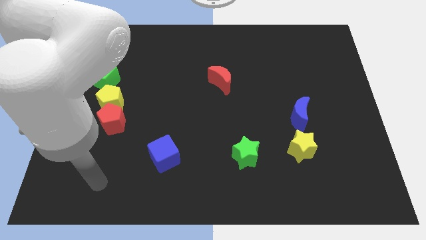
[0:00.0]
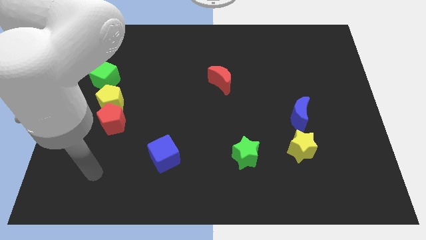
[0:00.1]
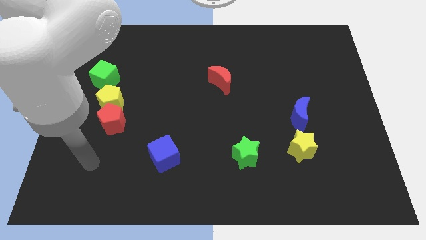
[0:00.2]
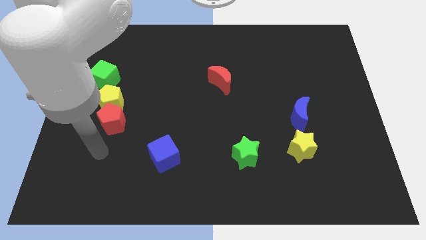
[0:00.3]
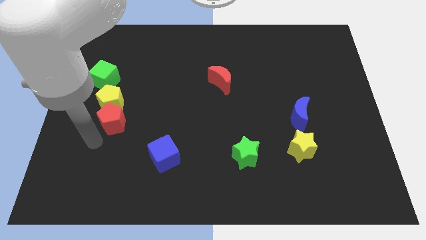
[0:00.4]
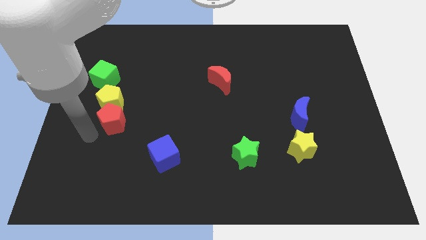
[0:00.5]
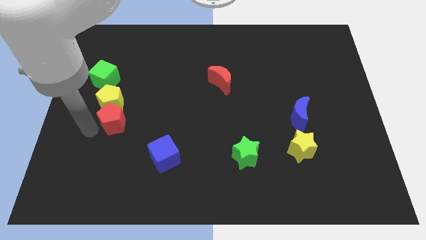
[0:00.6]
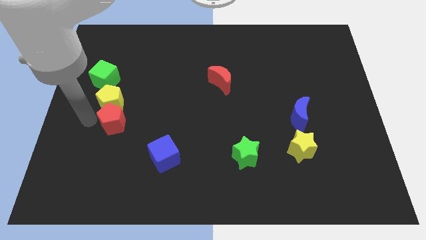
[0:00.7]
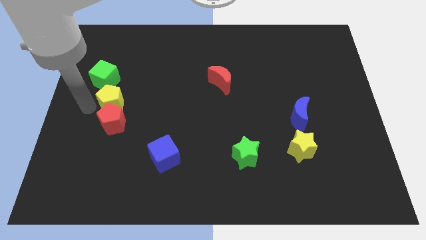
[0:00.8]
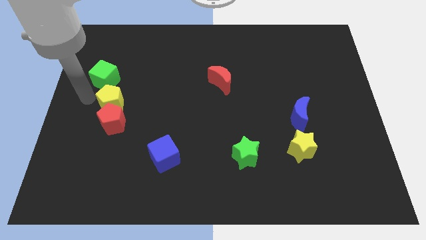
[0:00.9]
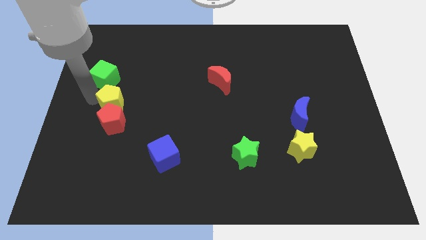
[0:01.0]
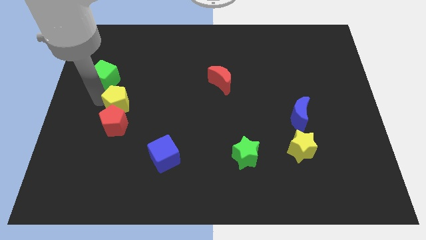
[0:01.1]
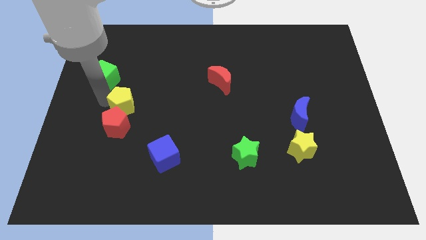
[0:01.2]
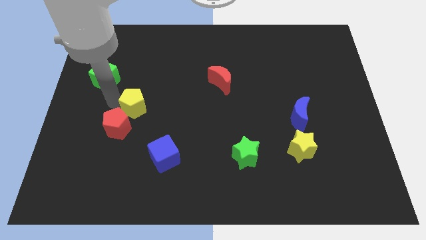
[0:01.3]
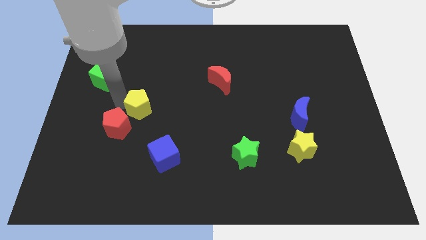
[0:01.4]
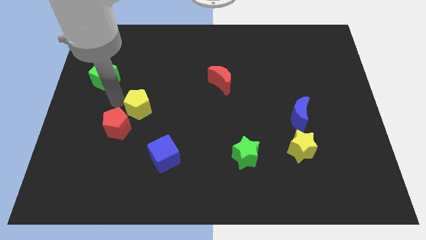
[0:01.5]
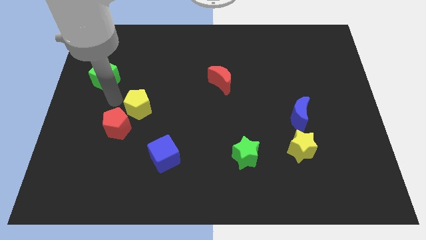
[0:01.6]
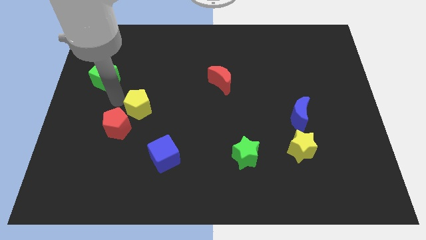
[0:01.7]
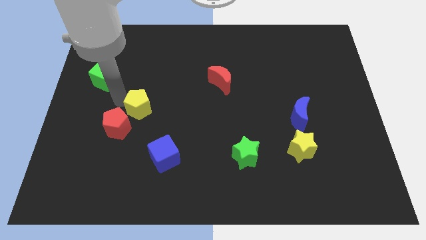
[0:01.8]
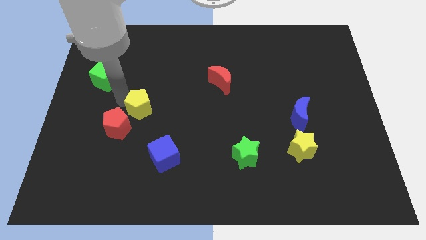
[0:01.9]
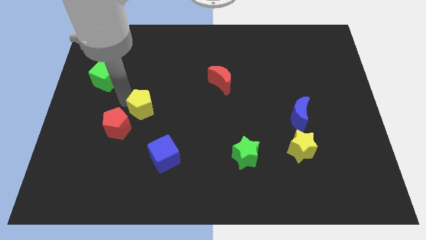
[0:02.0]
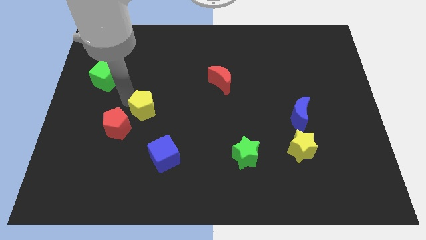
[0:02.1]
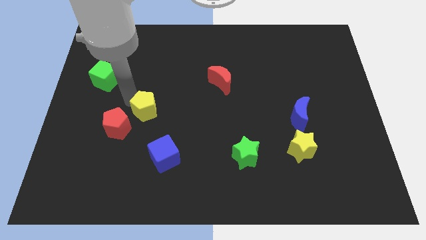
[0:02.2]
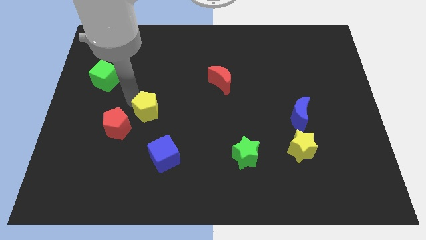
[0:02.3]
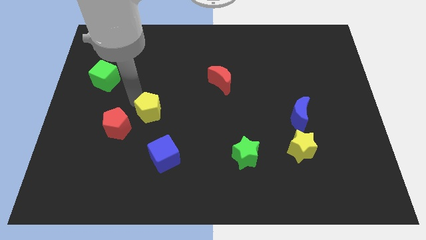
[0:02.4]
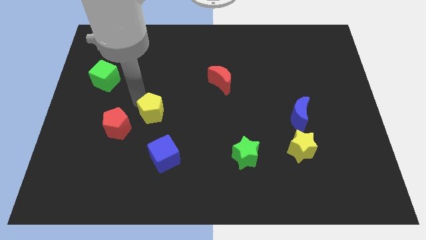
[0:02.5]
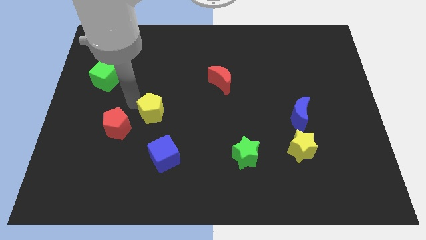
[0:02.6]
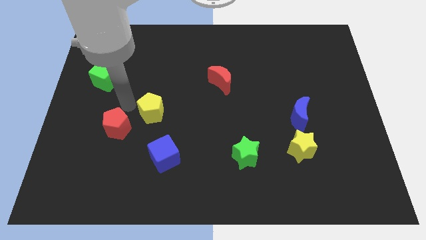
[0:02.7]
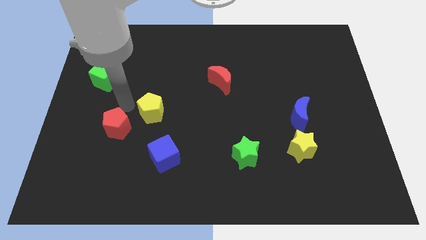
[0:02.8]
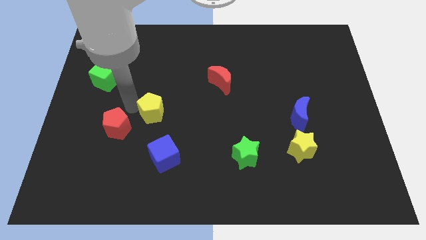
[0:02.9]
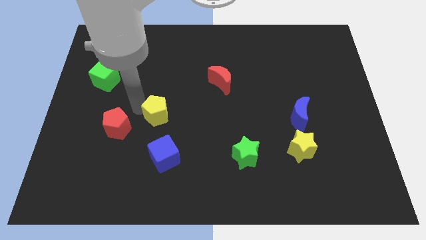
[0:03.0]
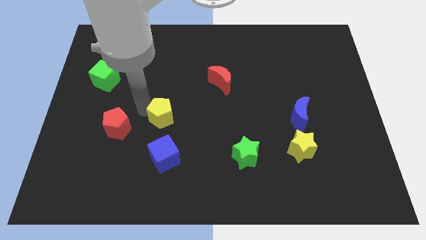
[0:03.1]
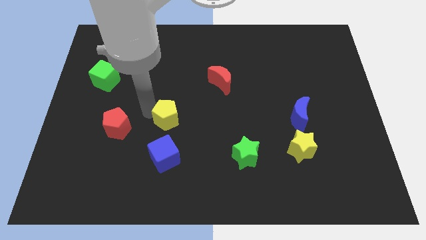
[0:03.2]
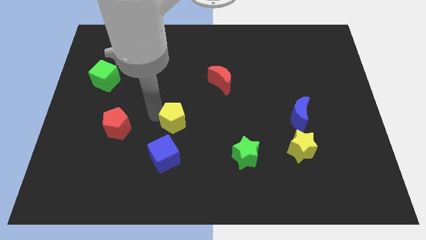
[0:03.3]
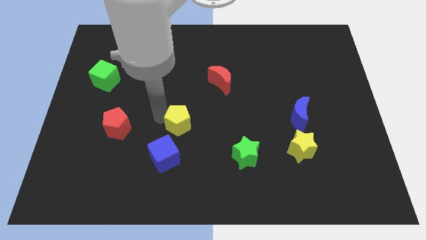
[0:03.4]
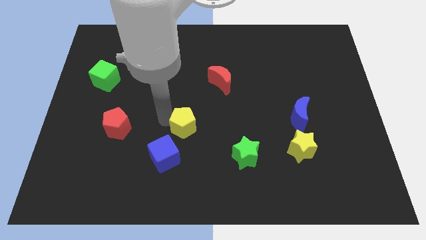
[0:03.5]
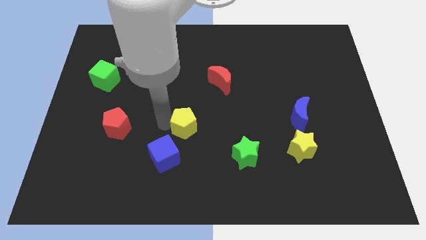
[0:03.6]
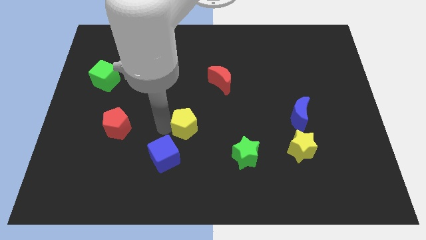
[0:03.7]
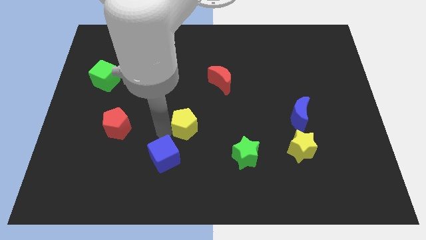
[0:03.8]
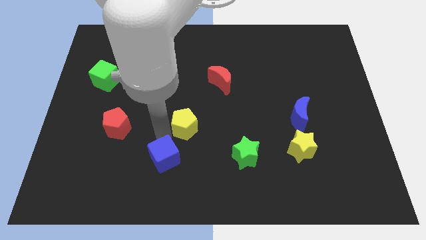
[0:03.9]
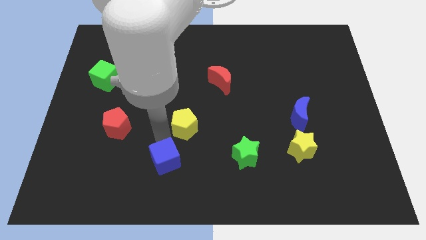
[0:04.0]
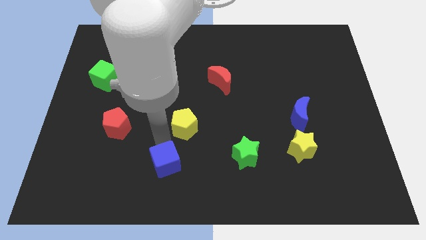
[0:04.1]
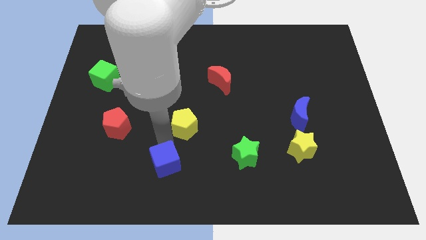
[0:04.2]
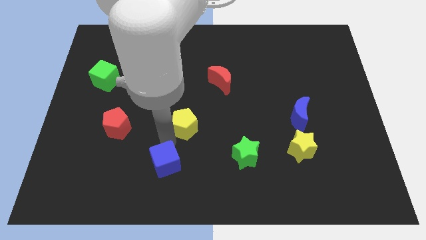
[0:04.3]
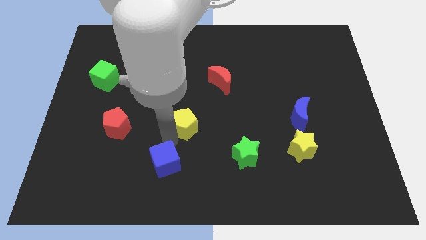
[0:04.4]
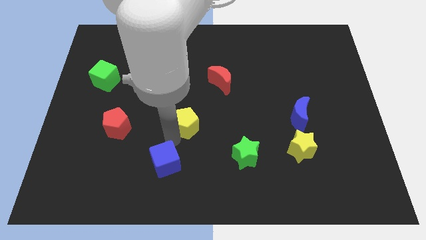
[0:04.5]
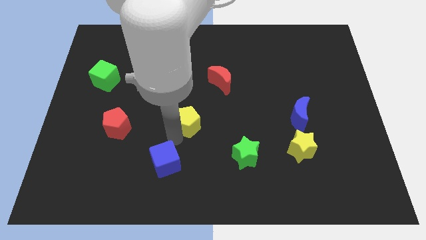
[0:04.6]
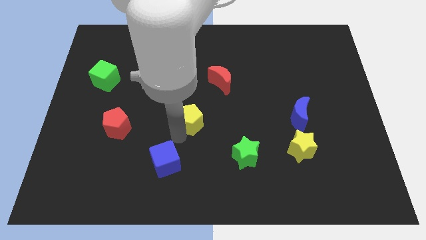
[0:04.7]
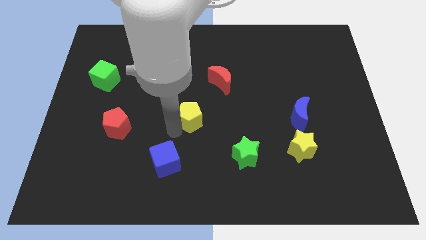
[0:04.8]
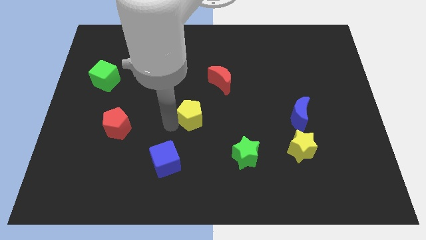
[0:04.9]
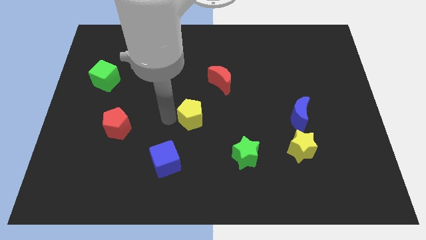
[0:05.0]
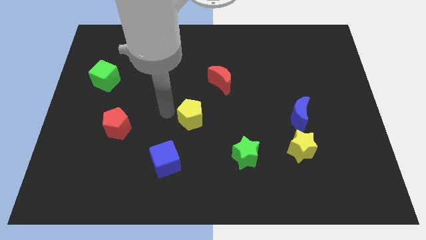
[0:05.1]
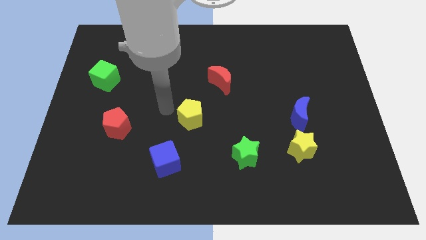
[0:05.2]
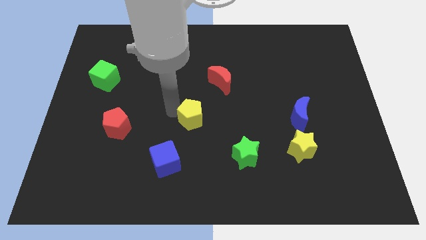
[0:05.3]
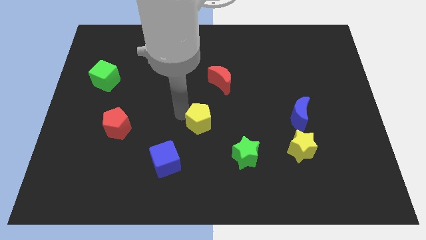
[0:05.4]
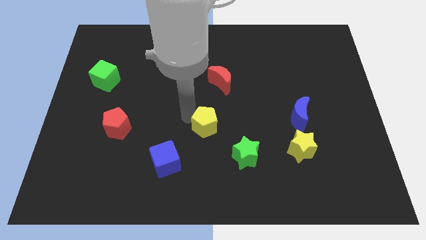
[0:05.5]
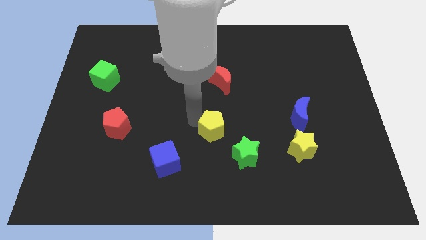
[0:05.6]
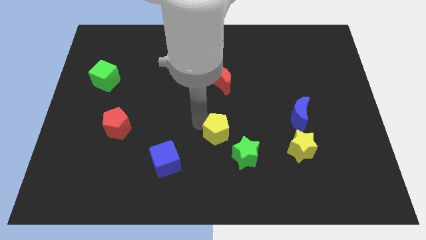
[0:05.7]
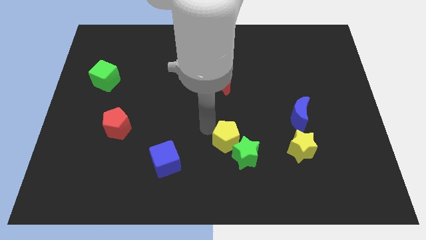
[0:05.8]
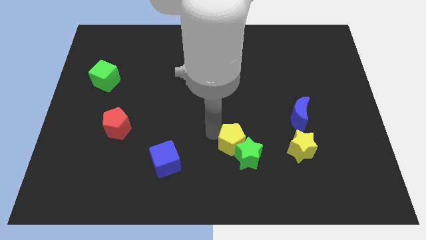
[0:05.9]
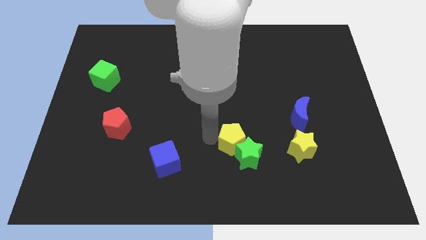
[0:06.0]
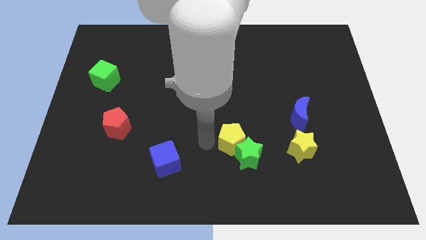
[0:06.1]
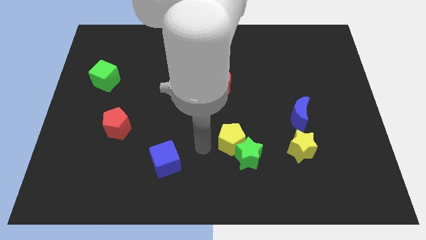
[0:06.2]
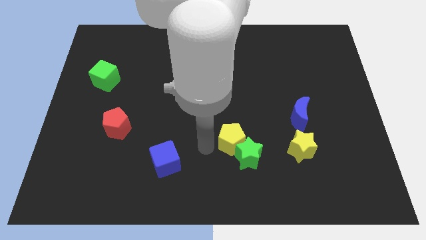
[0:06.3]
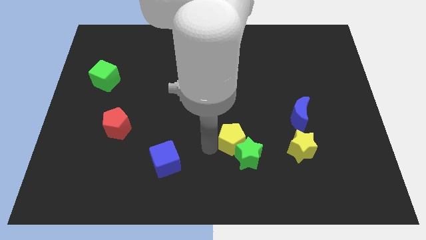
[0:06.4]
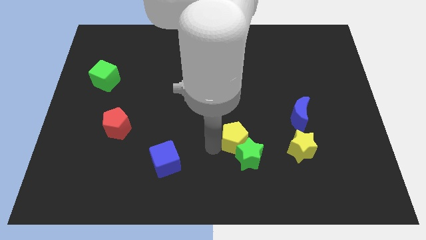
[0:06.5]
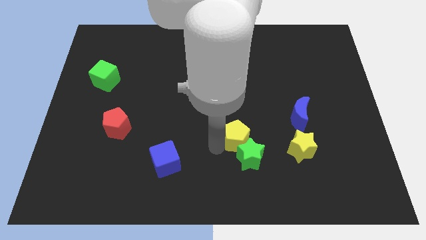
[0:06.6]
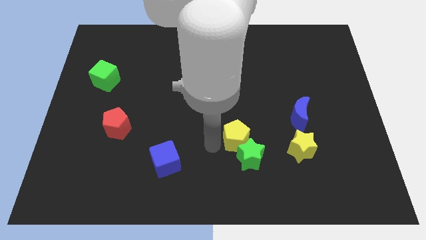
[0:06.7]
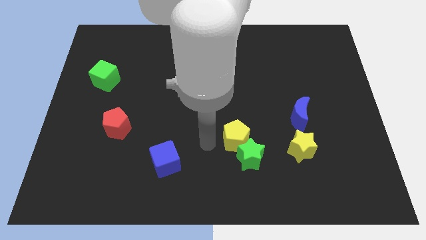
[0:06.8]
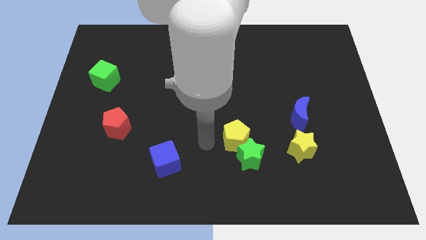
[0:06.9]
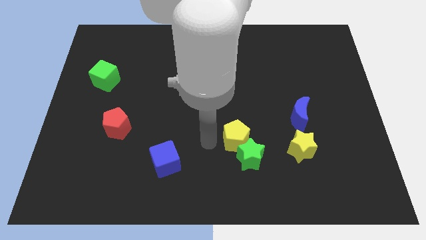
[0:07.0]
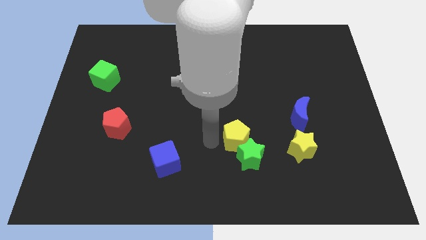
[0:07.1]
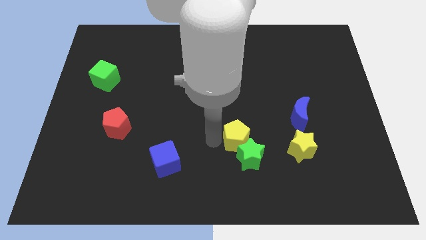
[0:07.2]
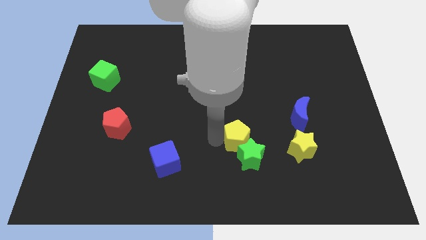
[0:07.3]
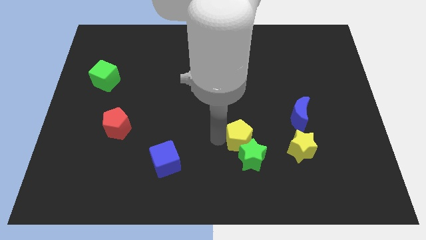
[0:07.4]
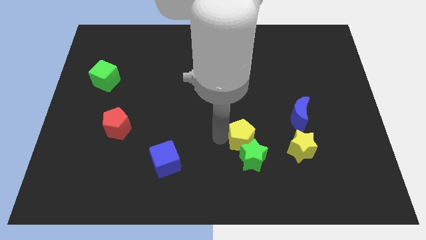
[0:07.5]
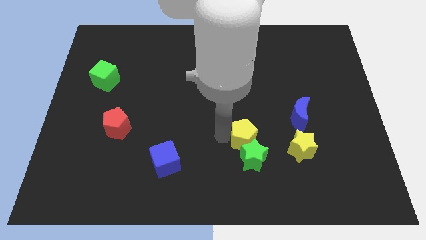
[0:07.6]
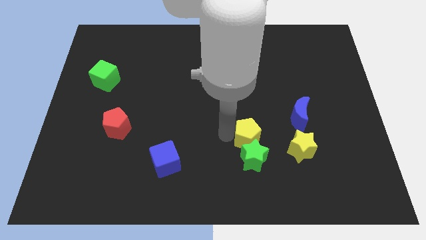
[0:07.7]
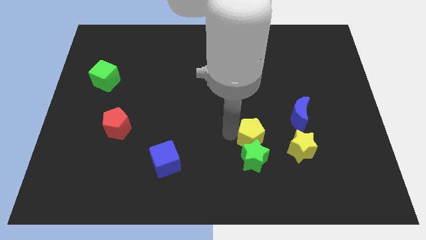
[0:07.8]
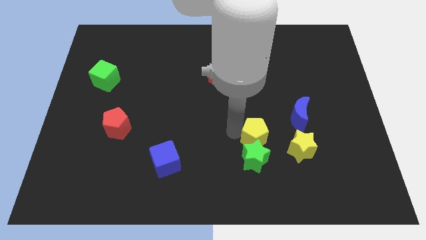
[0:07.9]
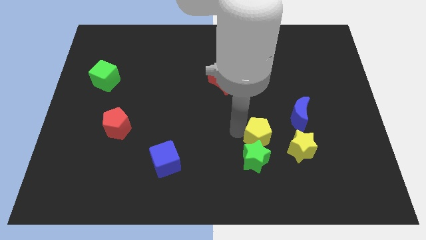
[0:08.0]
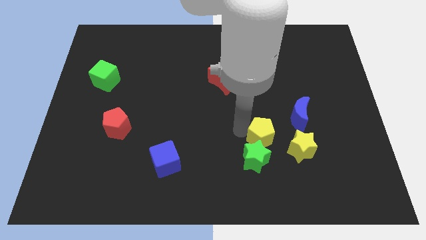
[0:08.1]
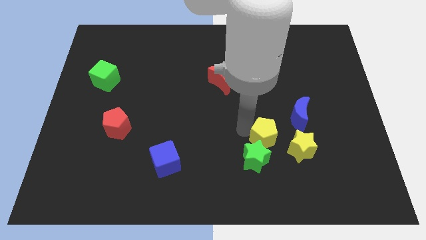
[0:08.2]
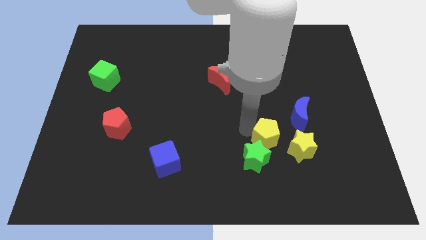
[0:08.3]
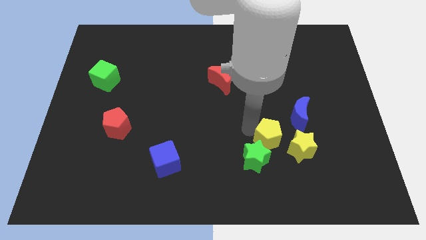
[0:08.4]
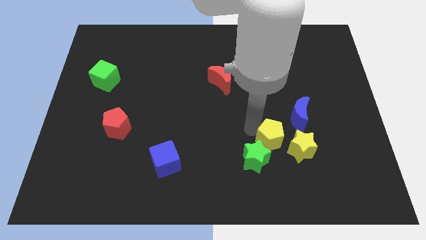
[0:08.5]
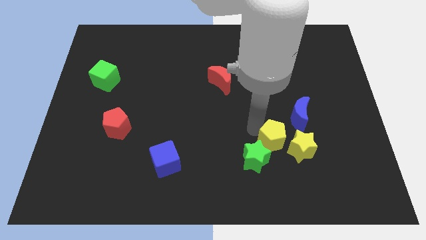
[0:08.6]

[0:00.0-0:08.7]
move the yellow pentagon towards the yellow star
